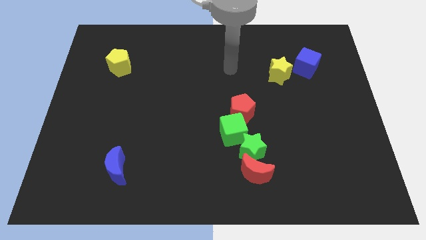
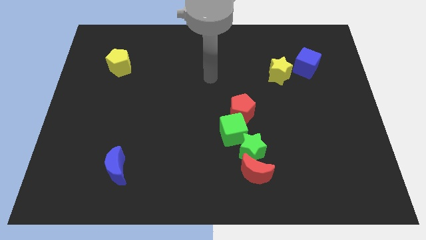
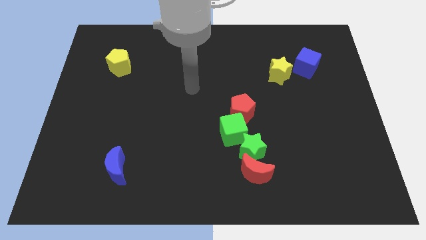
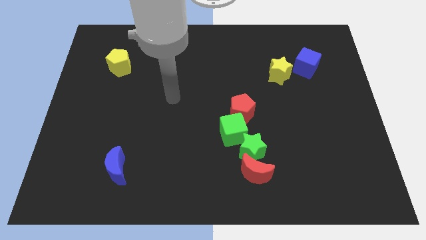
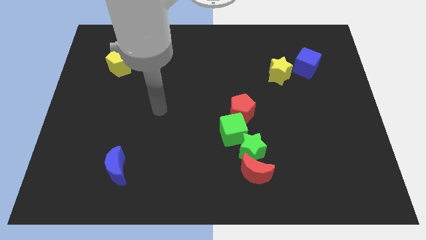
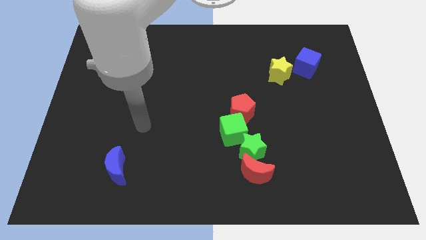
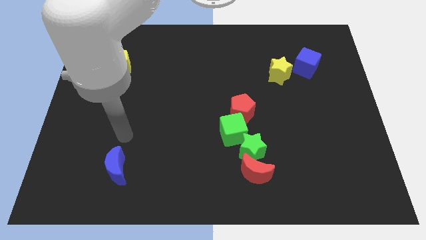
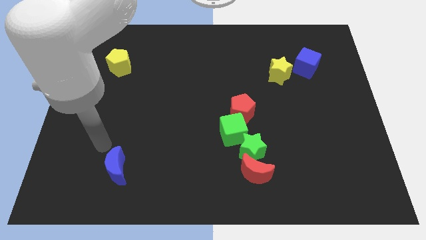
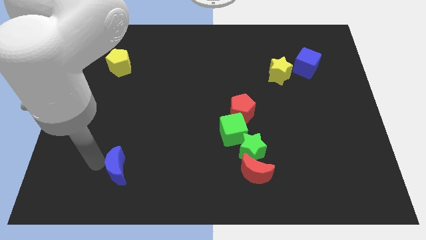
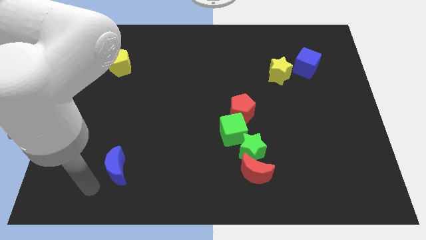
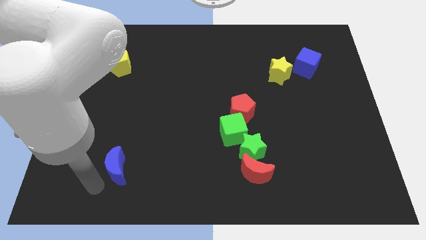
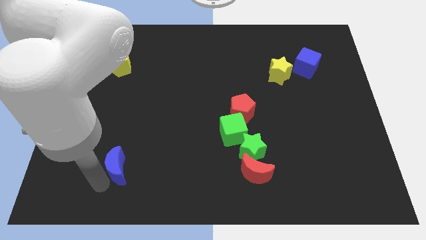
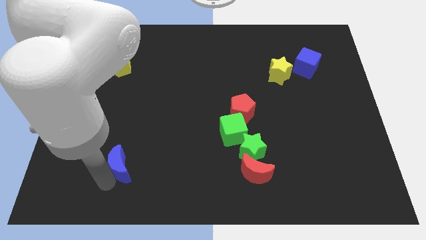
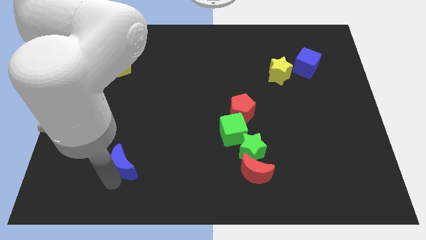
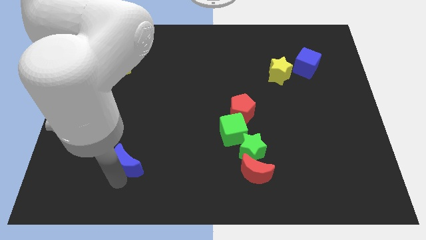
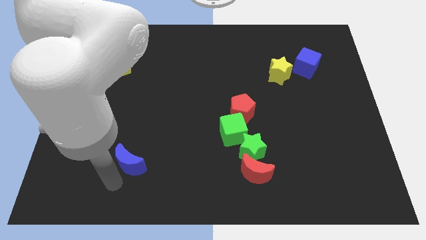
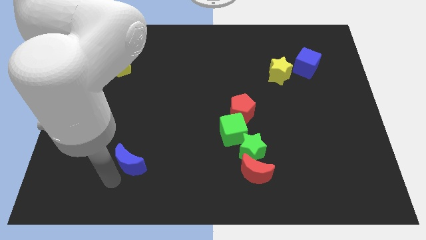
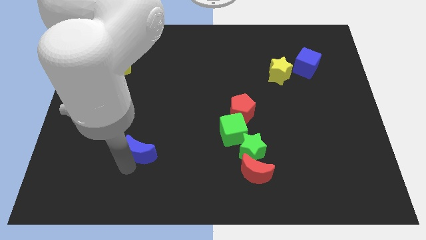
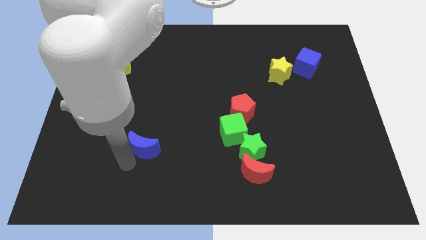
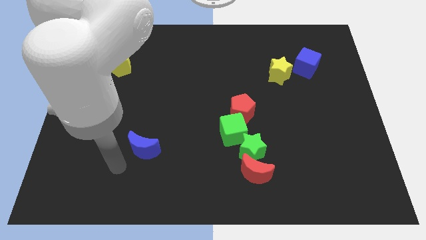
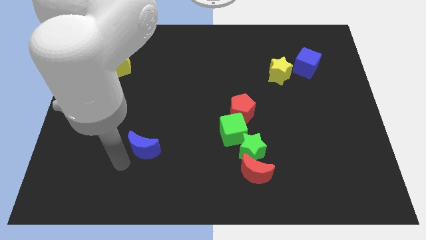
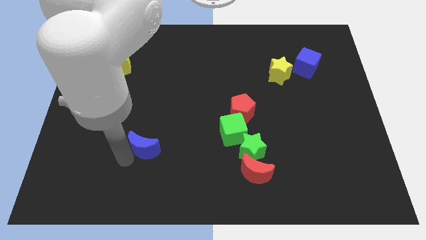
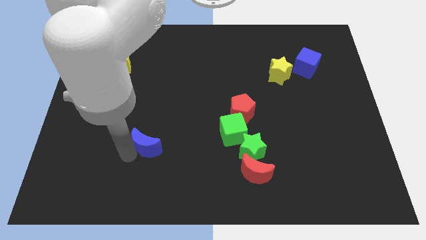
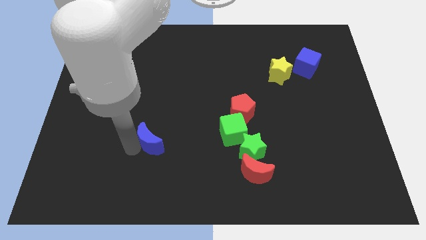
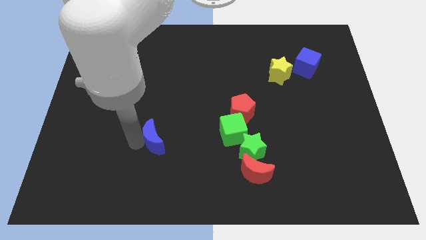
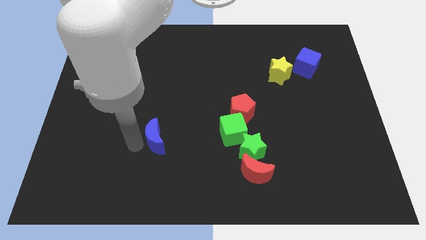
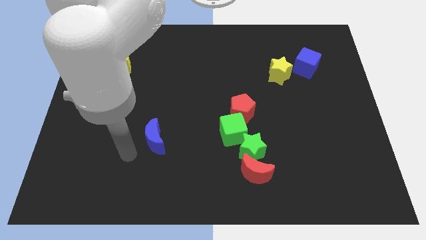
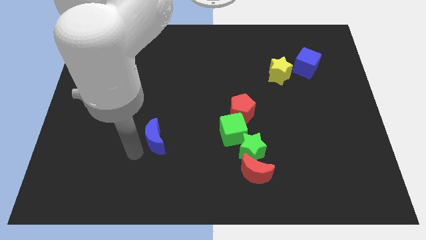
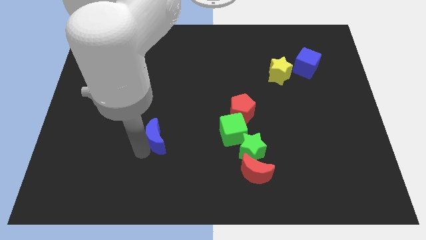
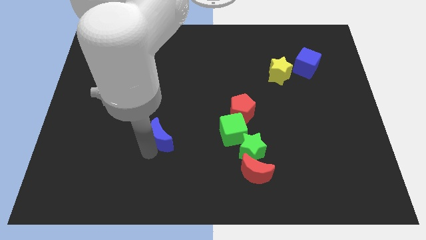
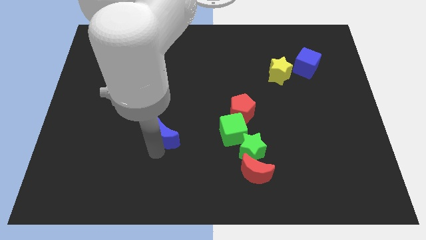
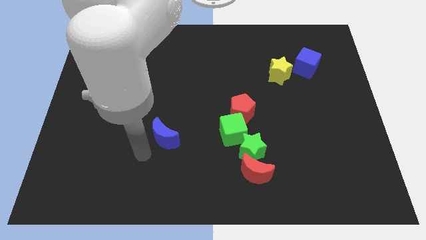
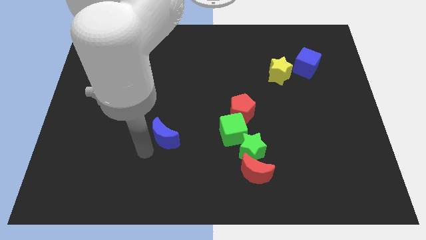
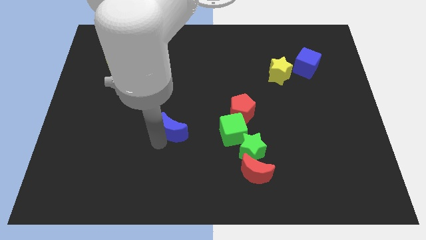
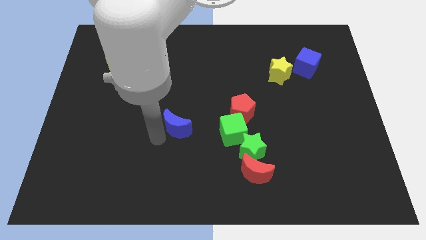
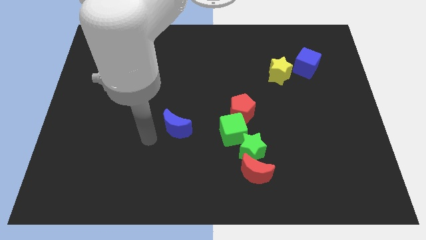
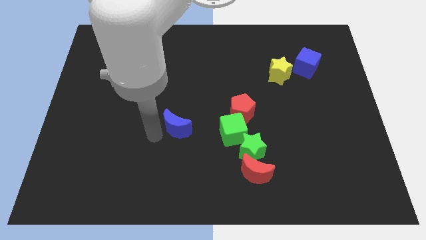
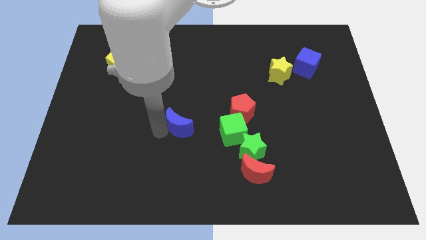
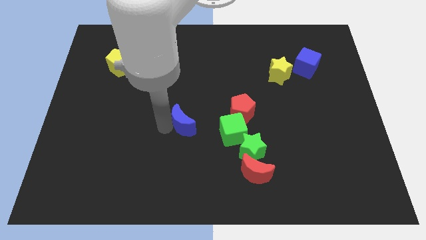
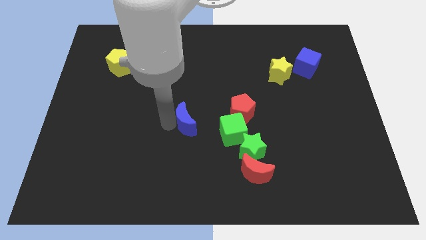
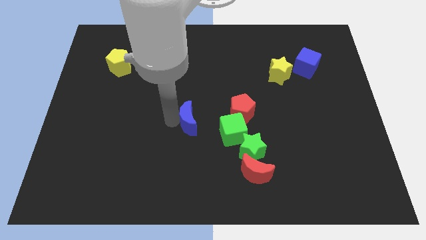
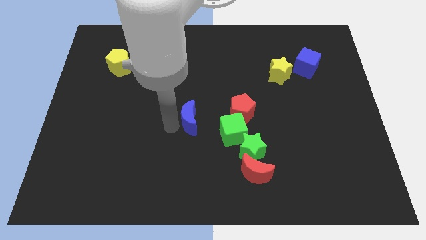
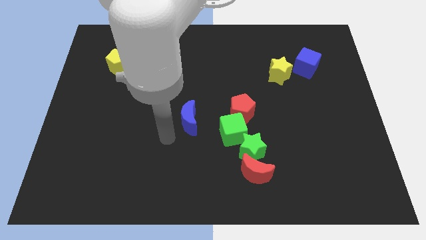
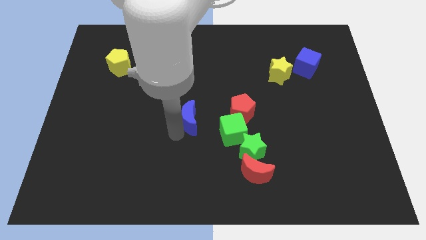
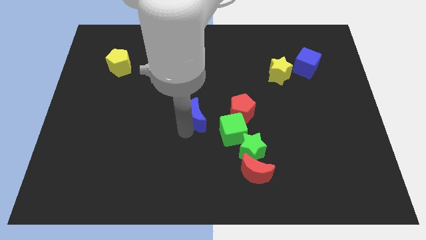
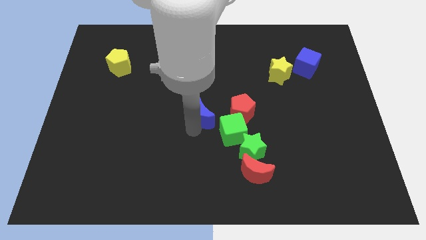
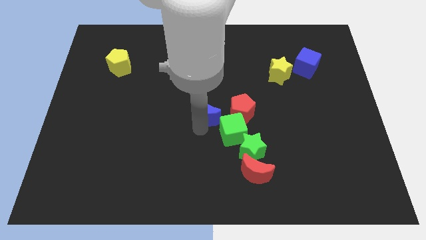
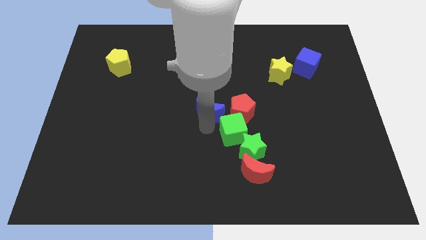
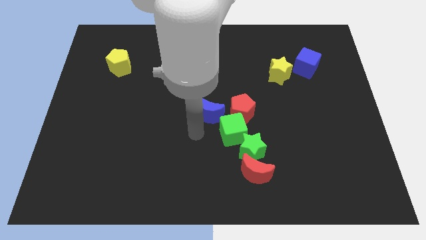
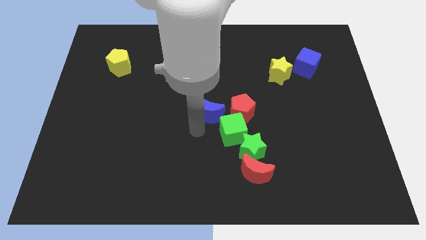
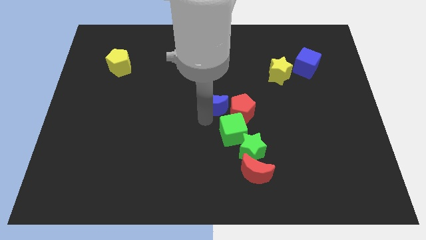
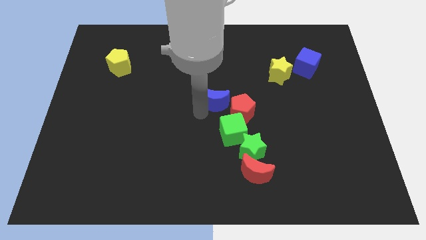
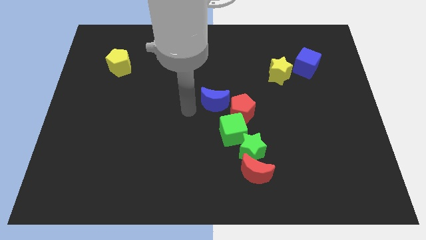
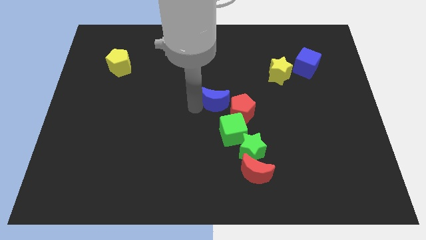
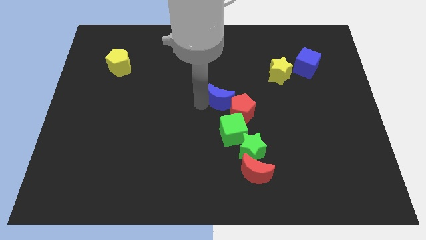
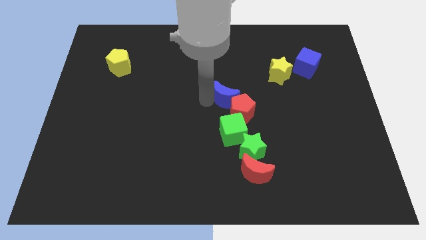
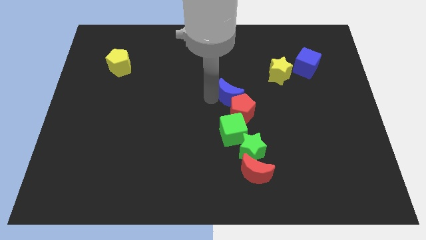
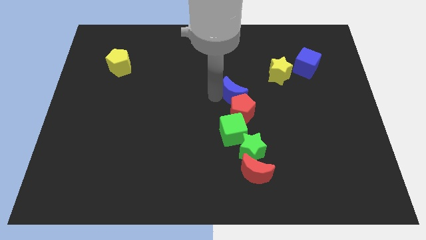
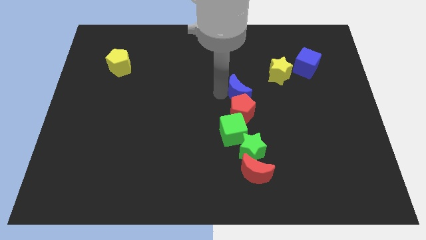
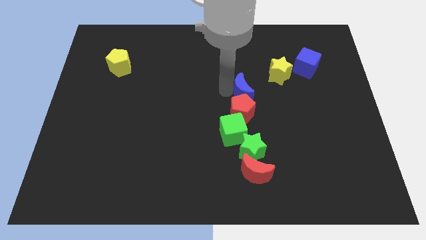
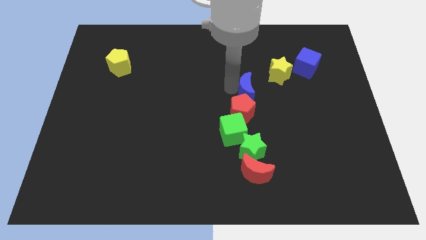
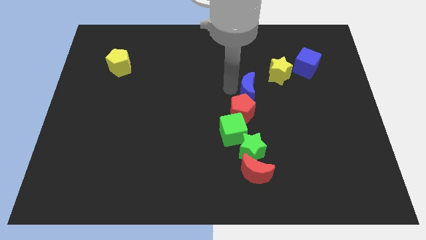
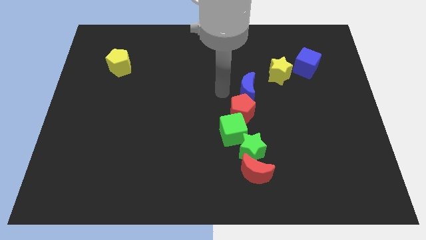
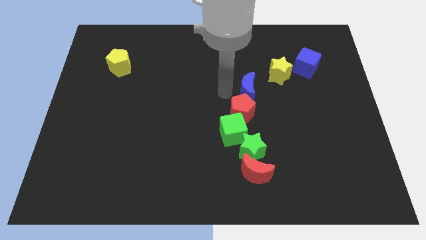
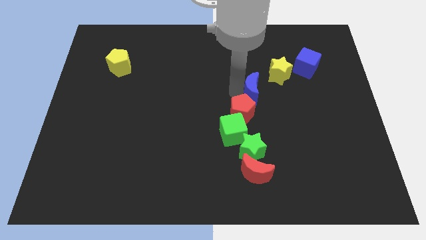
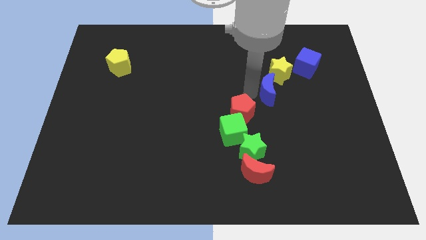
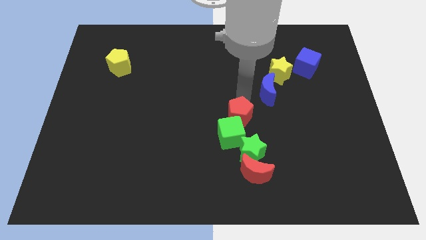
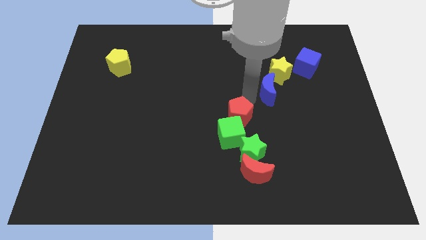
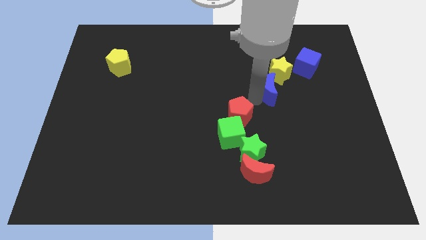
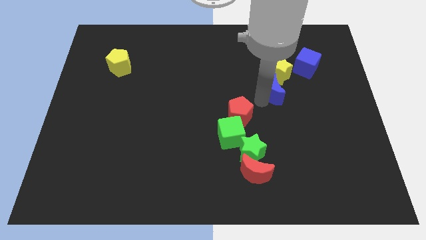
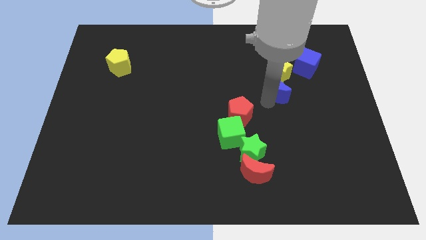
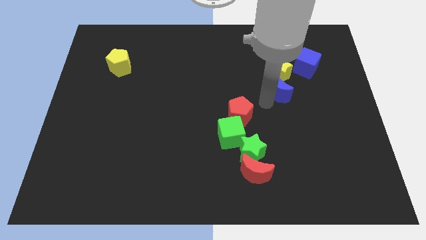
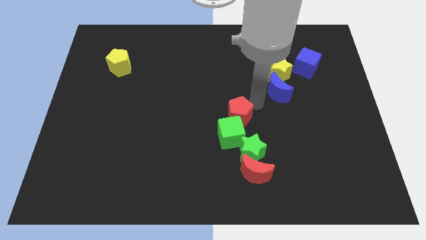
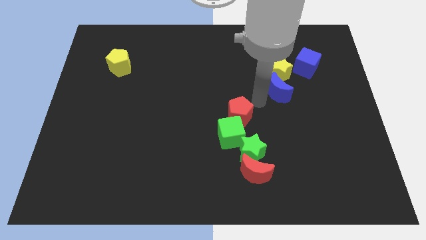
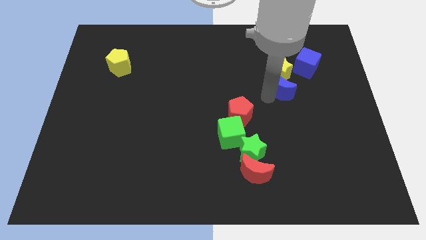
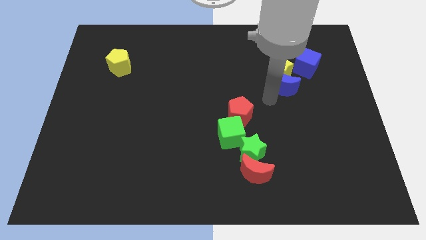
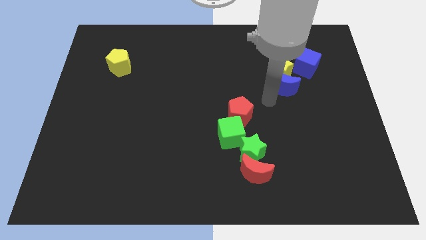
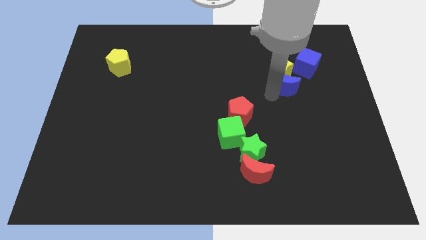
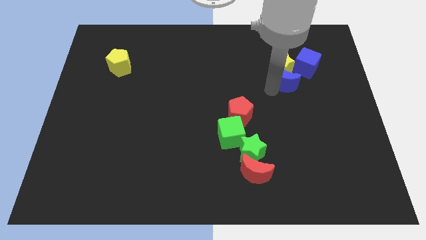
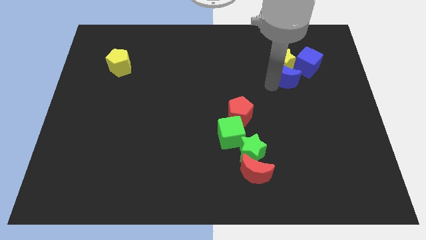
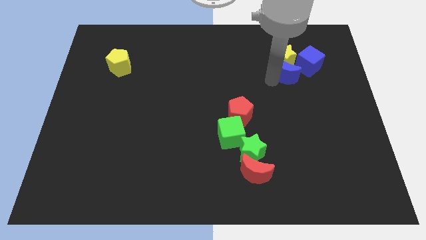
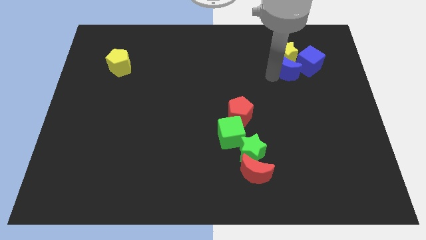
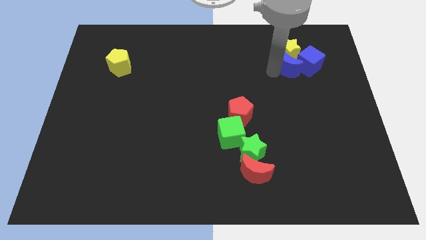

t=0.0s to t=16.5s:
put the blue moon close to the blue cube
